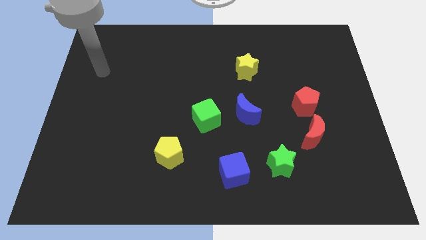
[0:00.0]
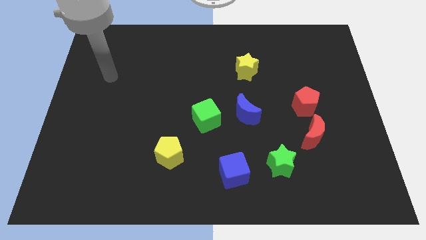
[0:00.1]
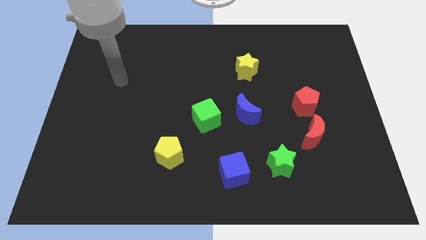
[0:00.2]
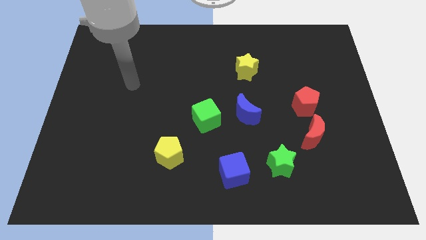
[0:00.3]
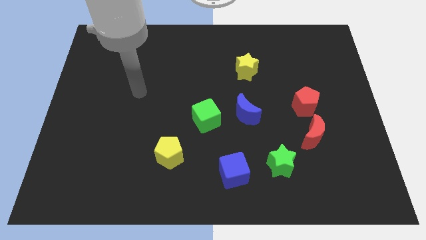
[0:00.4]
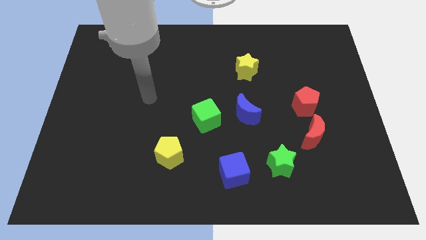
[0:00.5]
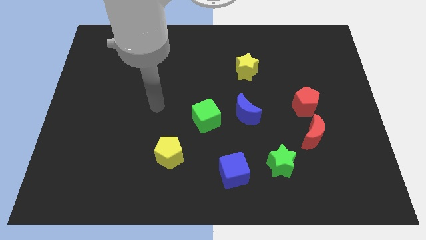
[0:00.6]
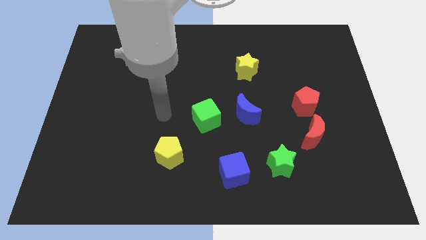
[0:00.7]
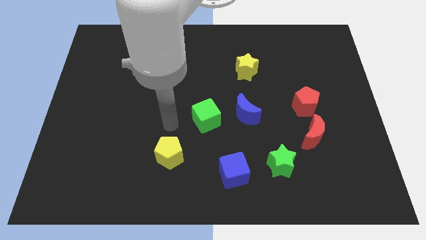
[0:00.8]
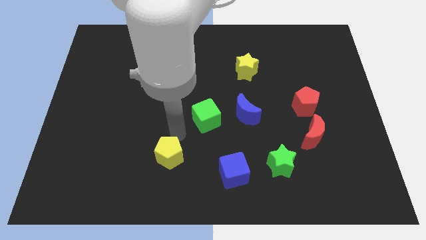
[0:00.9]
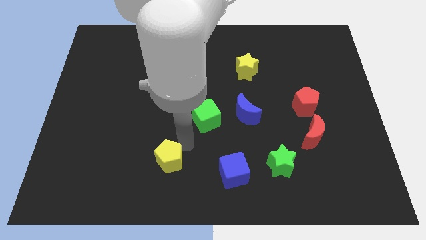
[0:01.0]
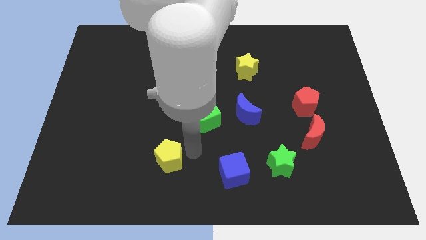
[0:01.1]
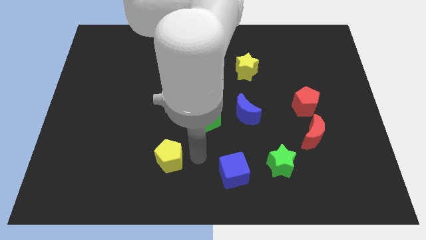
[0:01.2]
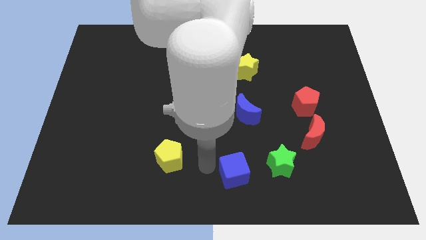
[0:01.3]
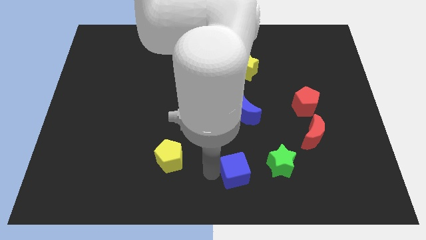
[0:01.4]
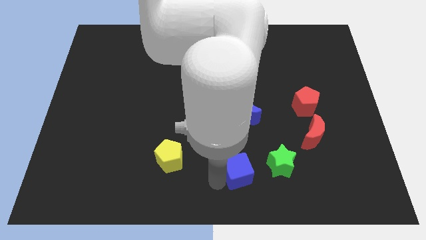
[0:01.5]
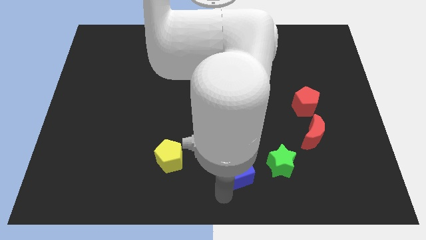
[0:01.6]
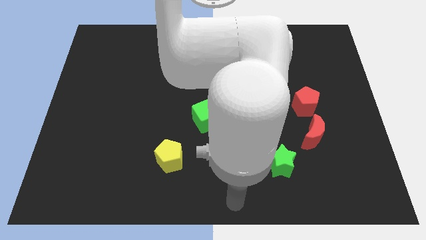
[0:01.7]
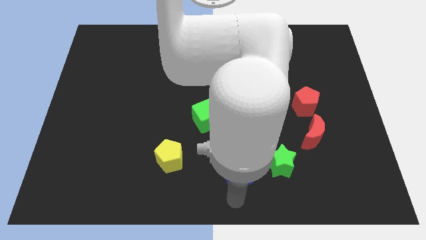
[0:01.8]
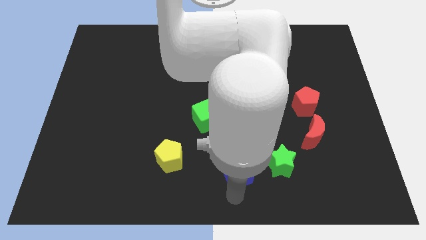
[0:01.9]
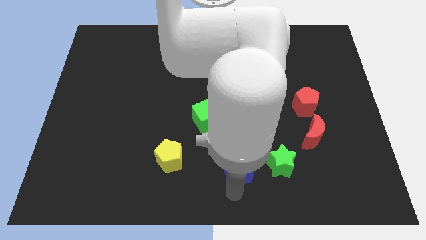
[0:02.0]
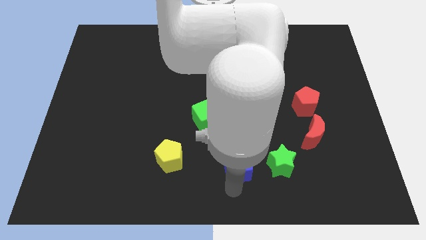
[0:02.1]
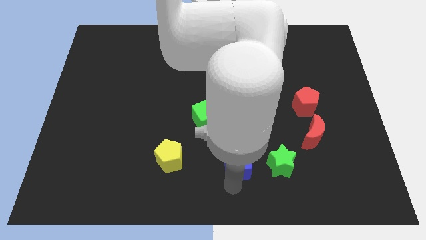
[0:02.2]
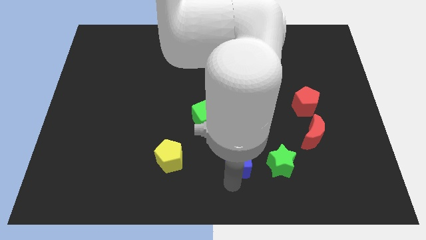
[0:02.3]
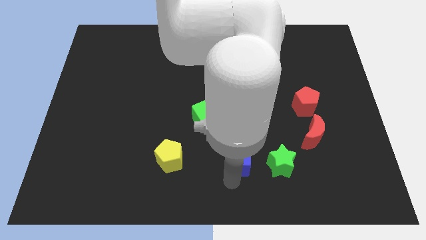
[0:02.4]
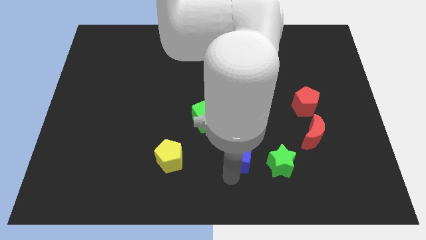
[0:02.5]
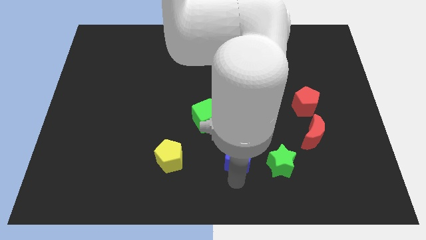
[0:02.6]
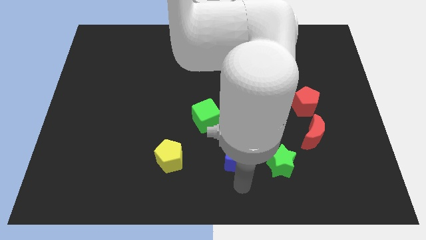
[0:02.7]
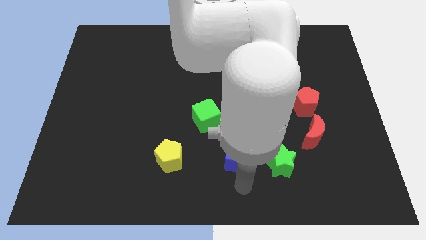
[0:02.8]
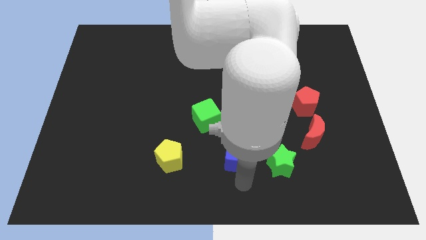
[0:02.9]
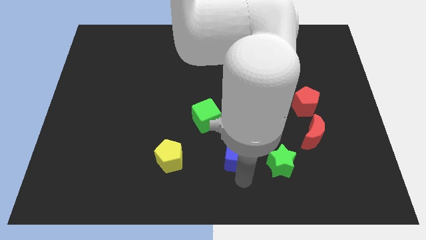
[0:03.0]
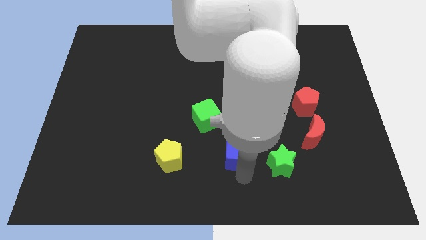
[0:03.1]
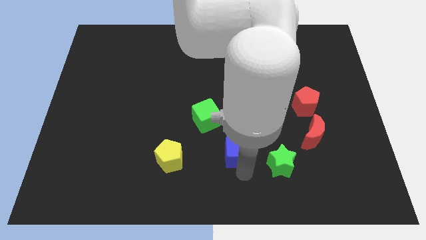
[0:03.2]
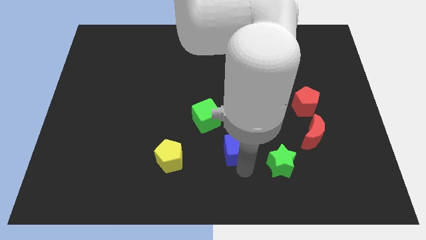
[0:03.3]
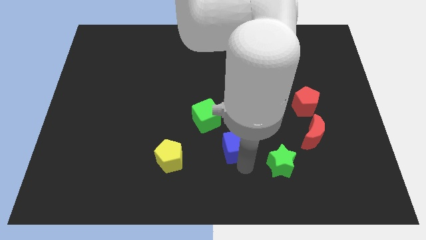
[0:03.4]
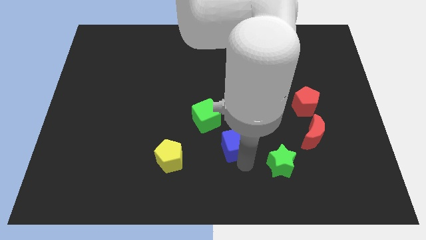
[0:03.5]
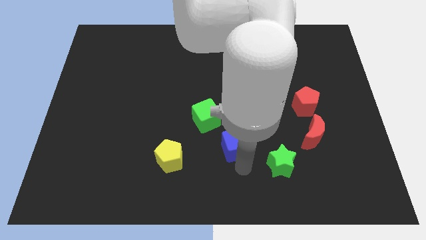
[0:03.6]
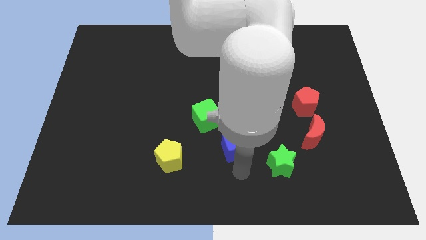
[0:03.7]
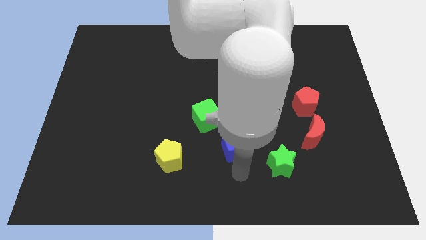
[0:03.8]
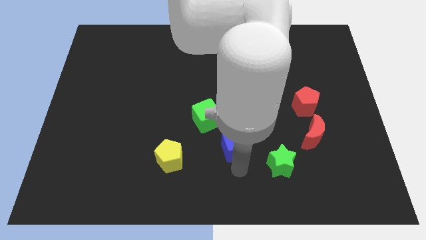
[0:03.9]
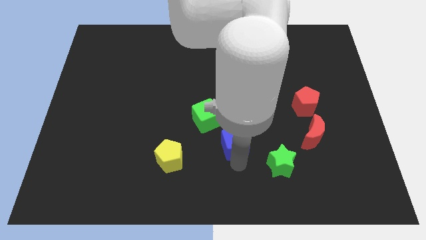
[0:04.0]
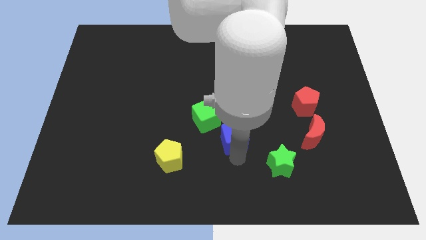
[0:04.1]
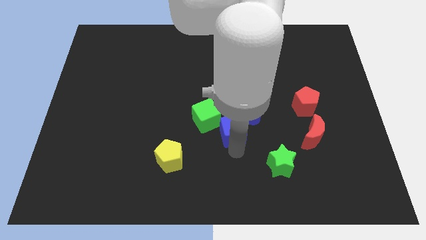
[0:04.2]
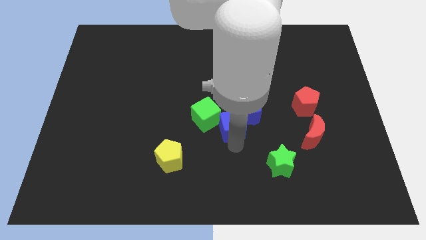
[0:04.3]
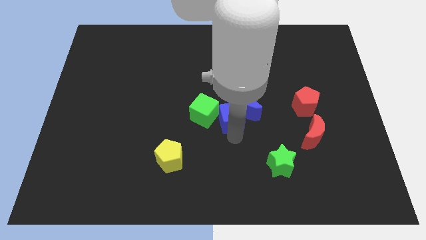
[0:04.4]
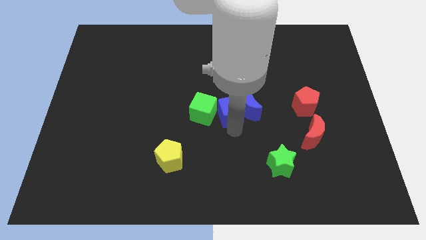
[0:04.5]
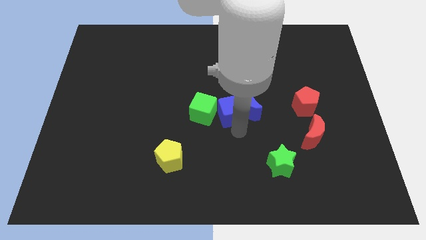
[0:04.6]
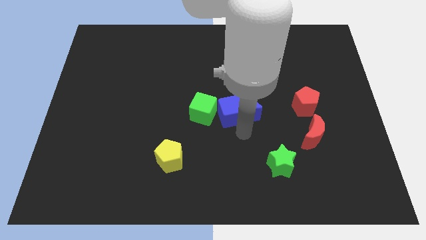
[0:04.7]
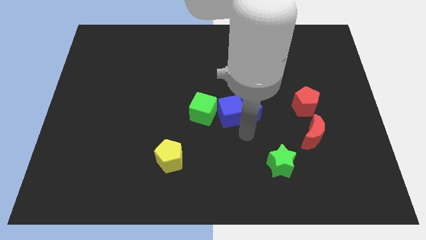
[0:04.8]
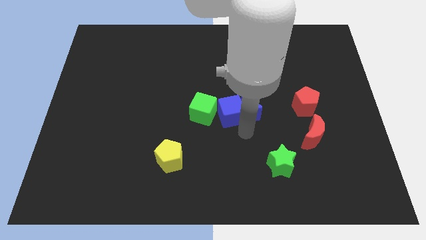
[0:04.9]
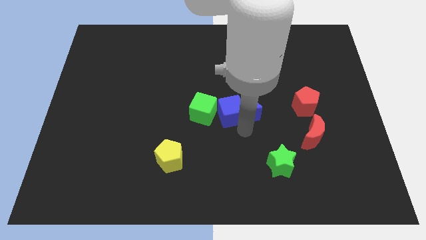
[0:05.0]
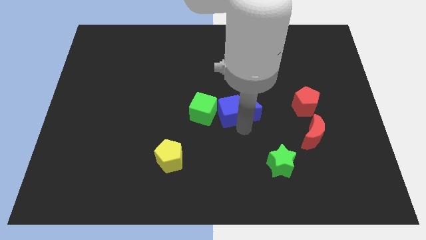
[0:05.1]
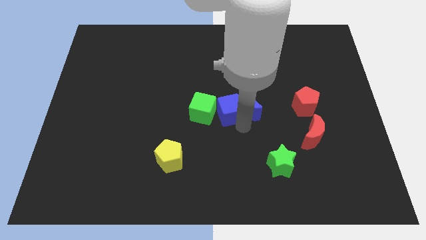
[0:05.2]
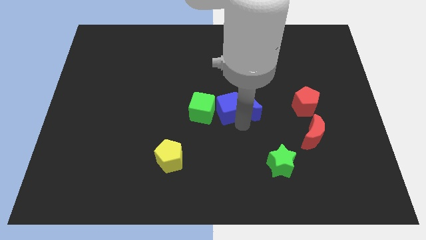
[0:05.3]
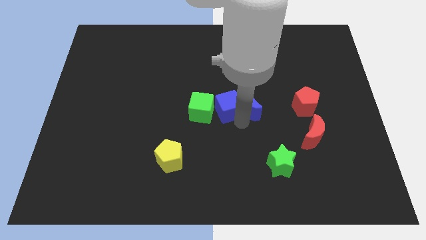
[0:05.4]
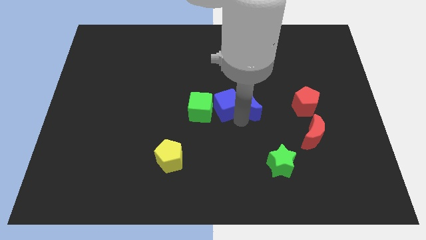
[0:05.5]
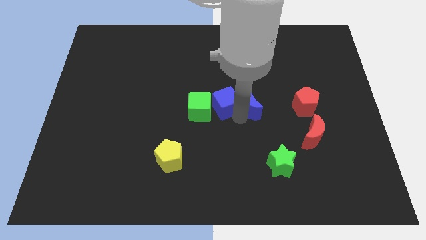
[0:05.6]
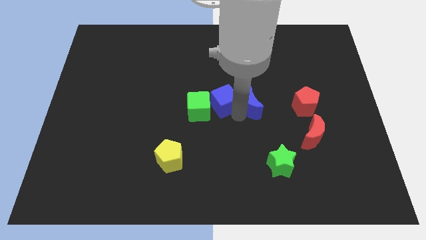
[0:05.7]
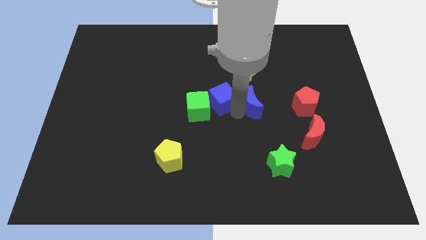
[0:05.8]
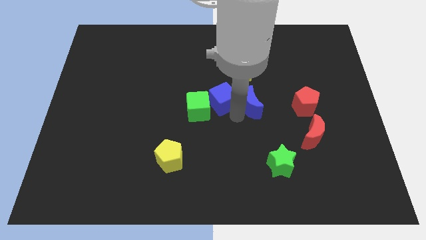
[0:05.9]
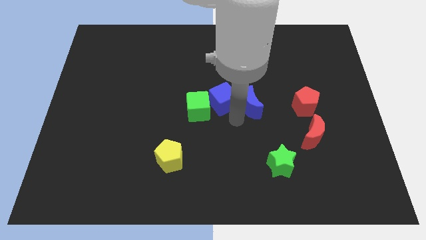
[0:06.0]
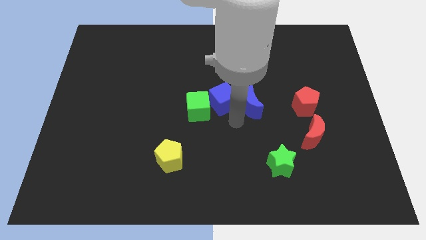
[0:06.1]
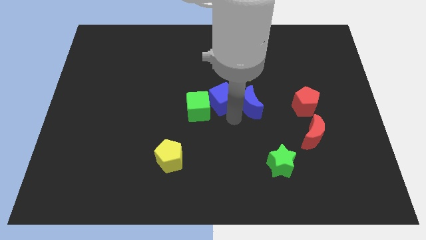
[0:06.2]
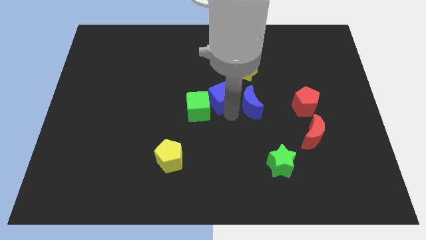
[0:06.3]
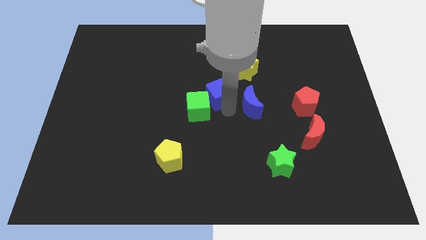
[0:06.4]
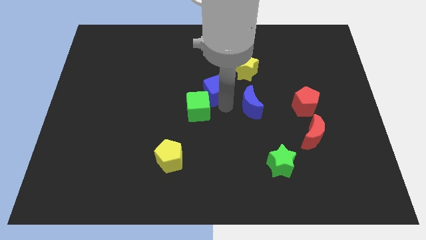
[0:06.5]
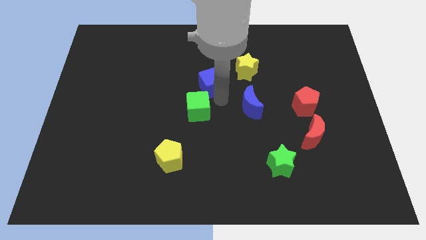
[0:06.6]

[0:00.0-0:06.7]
put the blue cube to the left of the yellow star

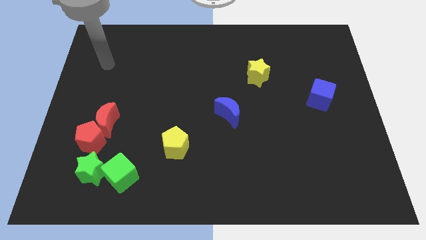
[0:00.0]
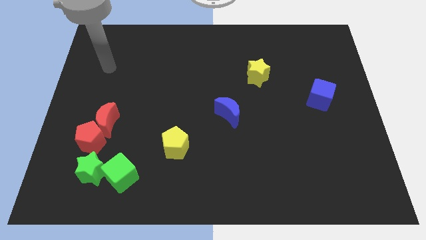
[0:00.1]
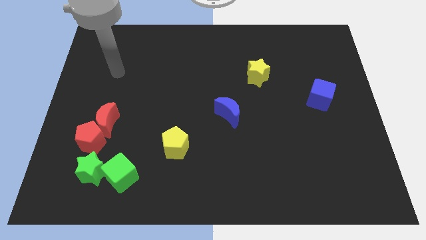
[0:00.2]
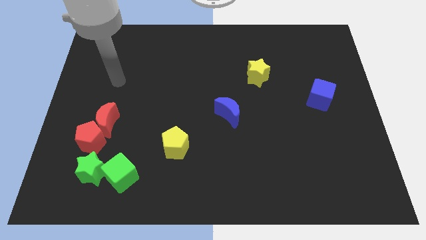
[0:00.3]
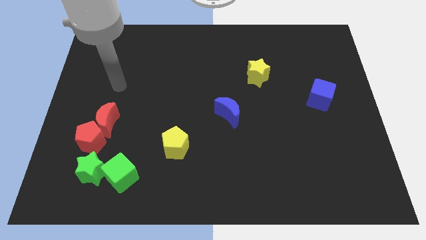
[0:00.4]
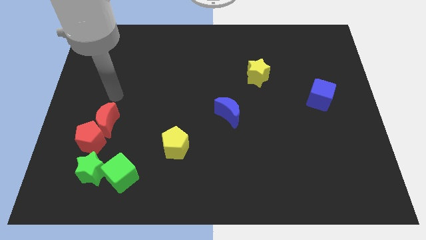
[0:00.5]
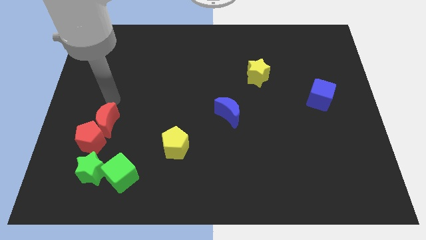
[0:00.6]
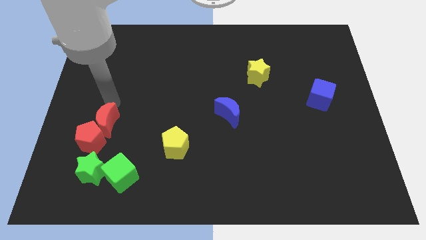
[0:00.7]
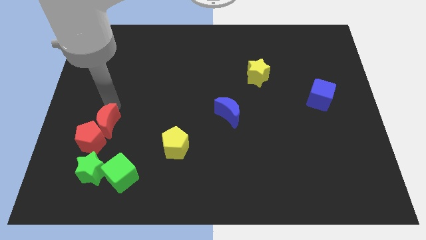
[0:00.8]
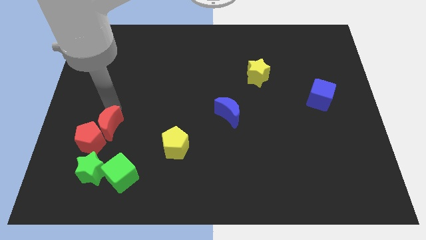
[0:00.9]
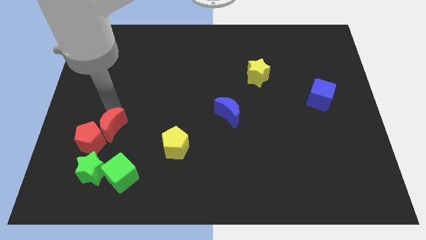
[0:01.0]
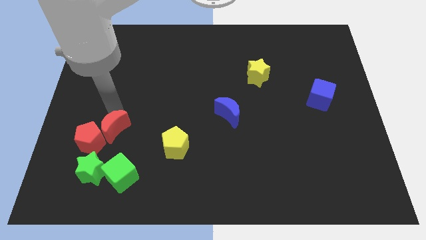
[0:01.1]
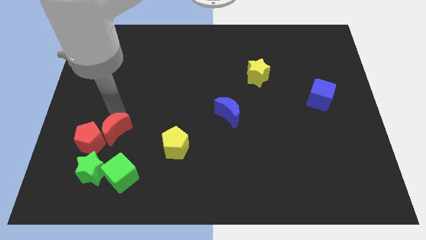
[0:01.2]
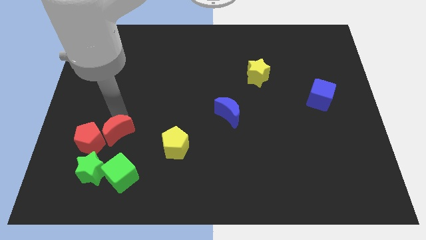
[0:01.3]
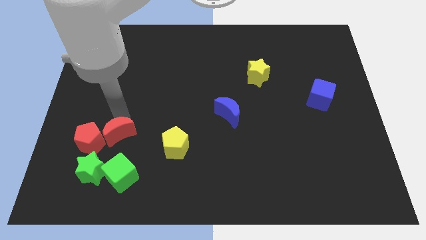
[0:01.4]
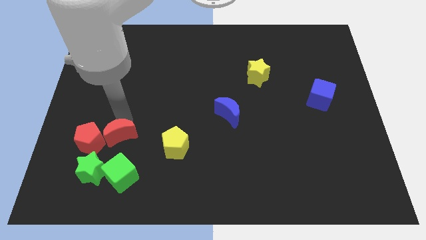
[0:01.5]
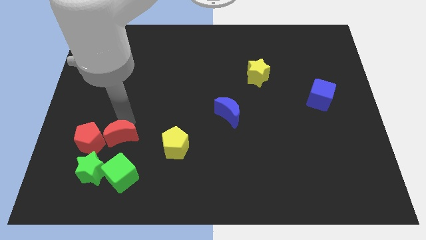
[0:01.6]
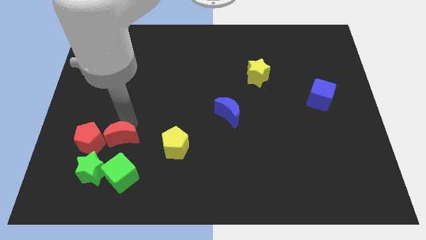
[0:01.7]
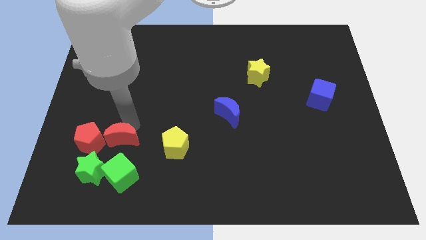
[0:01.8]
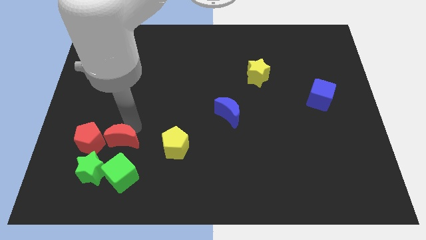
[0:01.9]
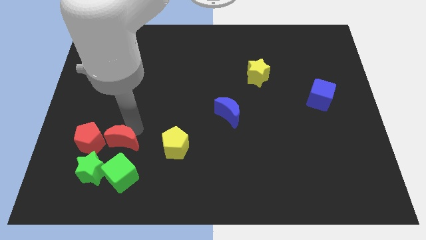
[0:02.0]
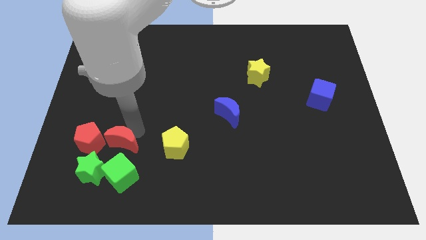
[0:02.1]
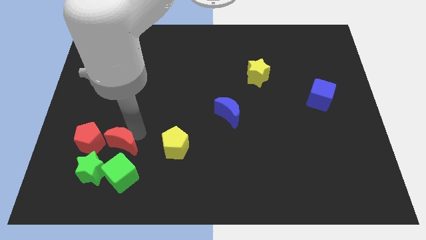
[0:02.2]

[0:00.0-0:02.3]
slide the red moon diagonally up and to the left of the green cube
